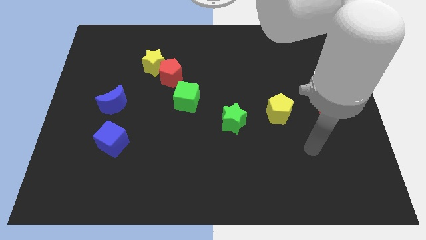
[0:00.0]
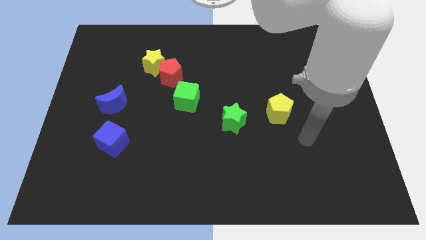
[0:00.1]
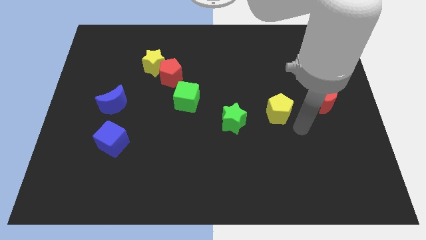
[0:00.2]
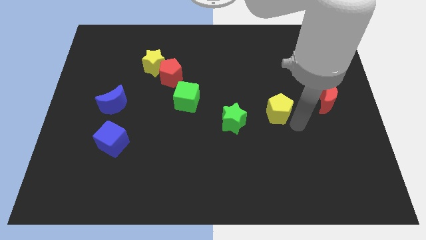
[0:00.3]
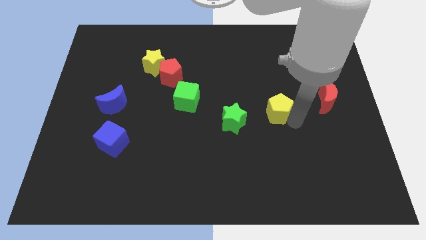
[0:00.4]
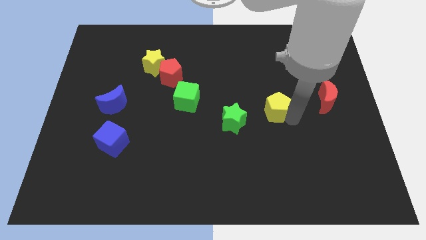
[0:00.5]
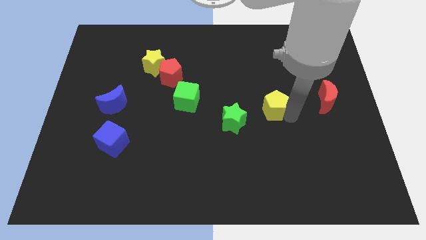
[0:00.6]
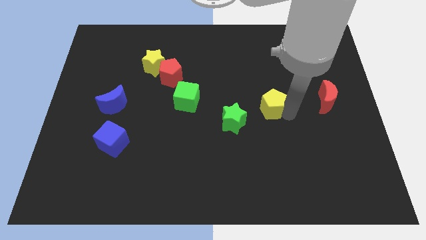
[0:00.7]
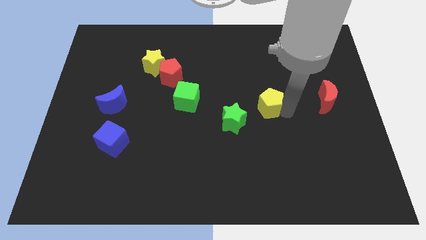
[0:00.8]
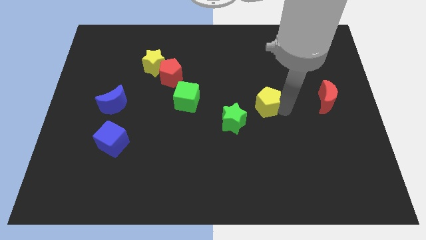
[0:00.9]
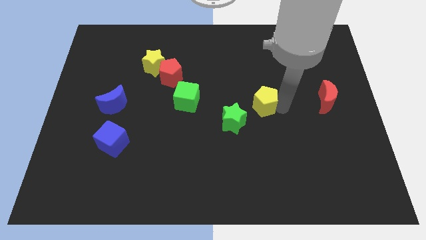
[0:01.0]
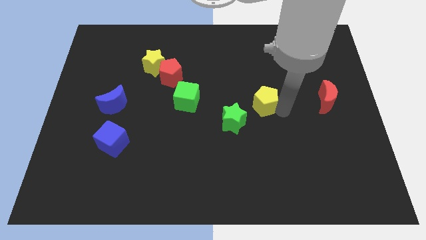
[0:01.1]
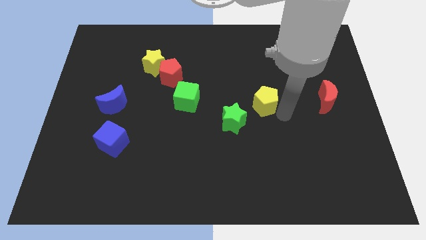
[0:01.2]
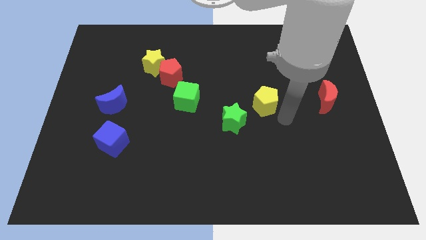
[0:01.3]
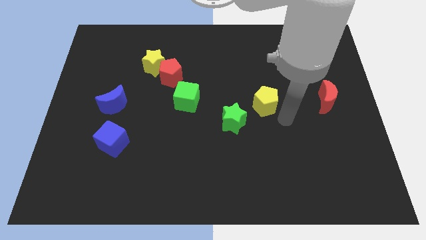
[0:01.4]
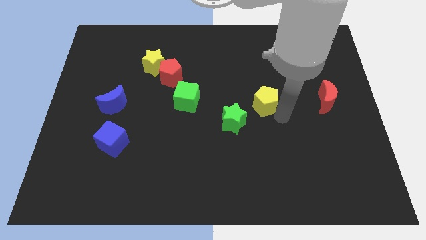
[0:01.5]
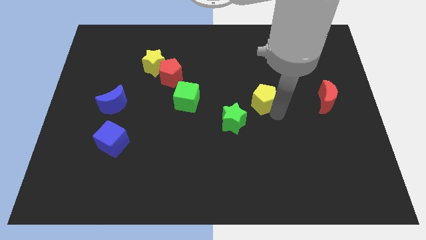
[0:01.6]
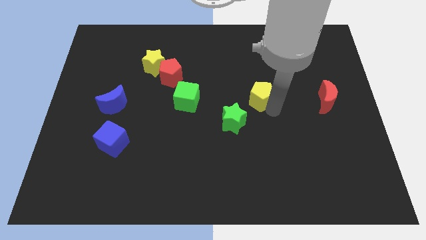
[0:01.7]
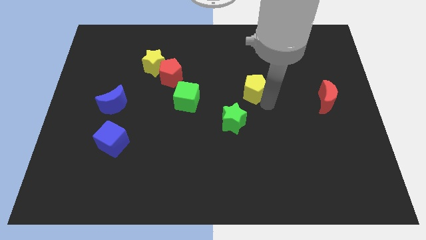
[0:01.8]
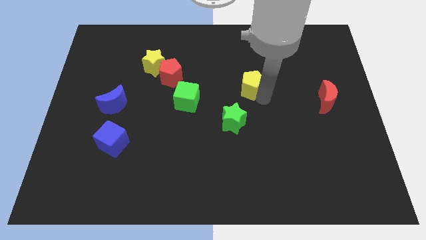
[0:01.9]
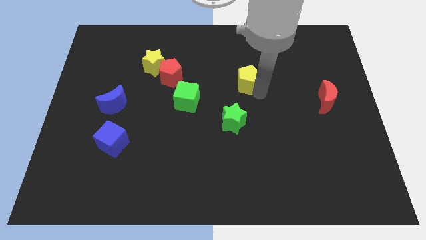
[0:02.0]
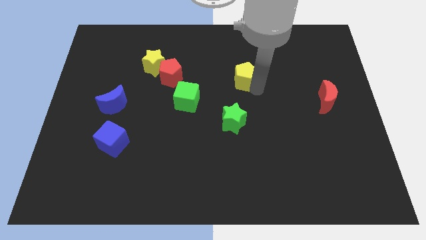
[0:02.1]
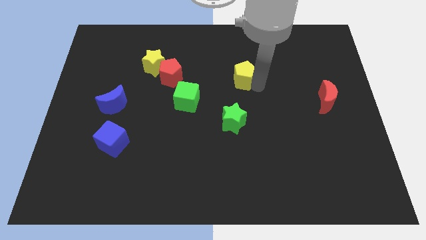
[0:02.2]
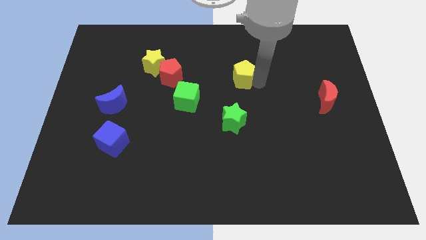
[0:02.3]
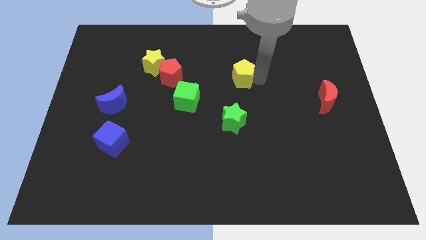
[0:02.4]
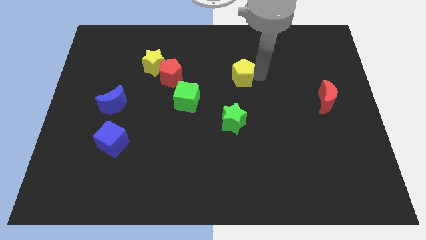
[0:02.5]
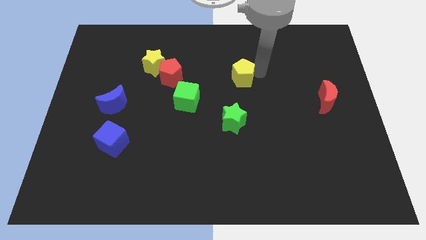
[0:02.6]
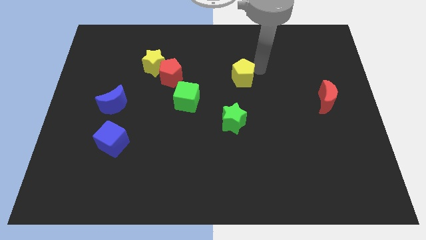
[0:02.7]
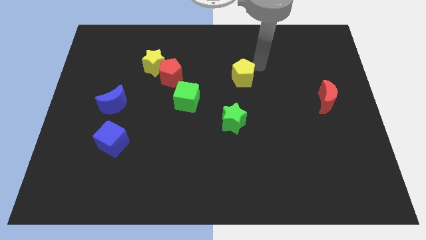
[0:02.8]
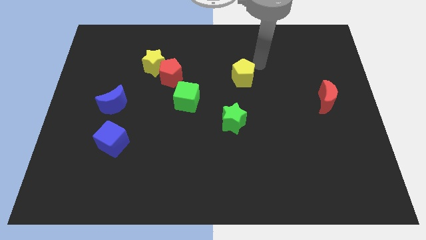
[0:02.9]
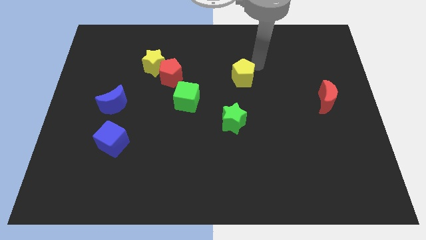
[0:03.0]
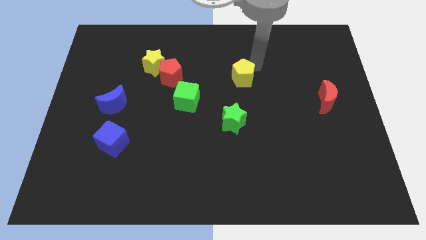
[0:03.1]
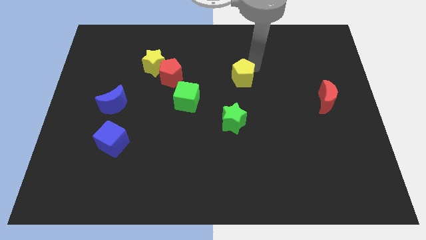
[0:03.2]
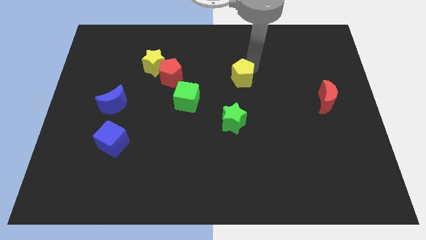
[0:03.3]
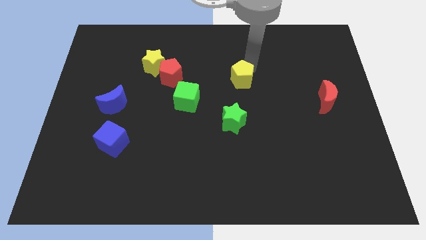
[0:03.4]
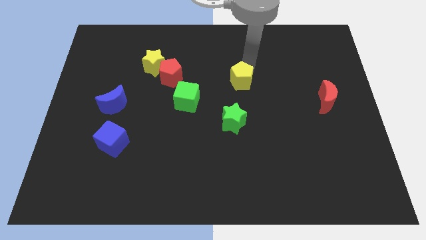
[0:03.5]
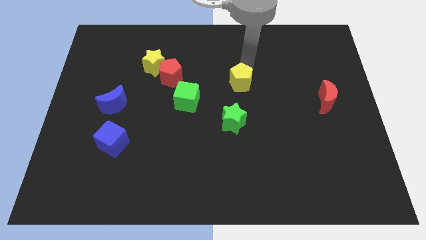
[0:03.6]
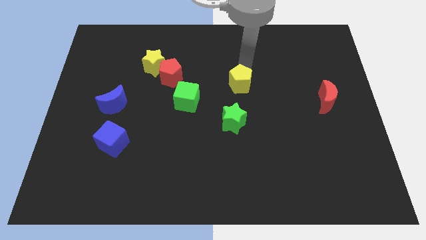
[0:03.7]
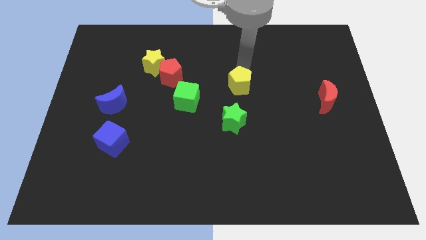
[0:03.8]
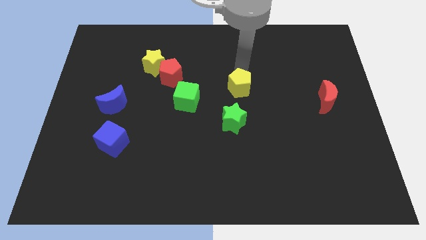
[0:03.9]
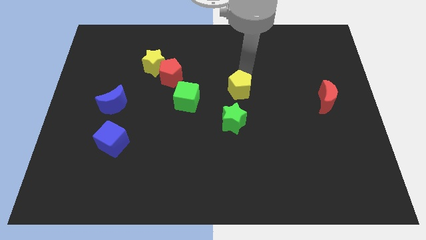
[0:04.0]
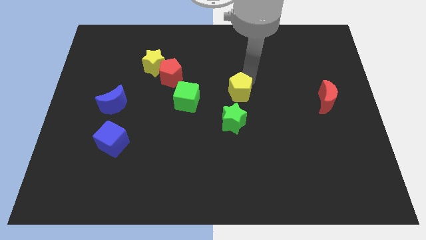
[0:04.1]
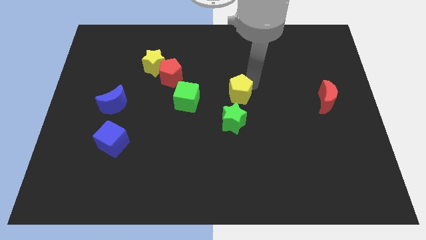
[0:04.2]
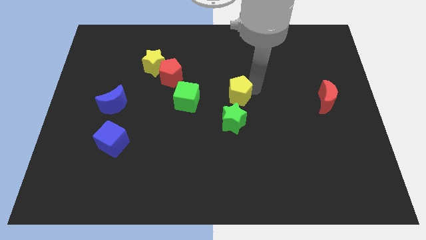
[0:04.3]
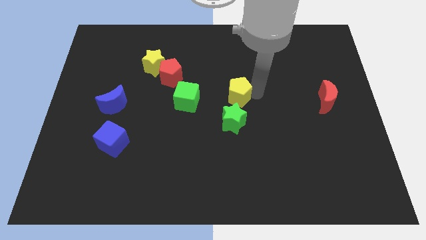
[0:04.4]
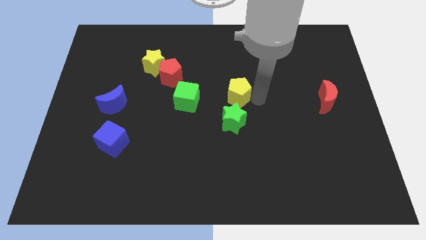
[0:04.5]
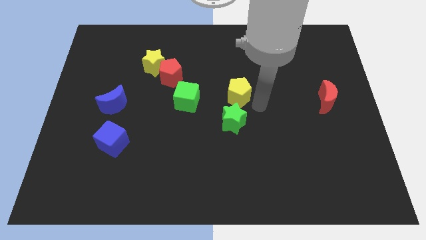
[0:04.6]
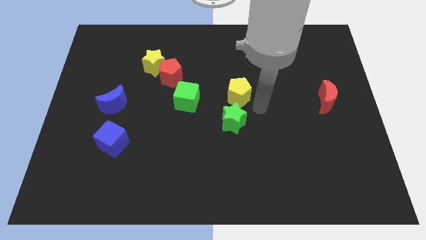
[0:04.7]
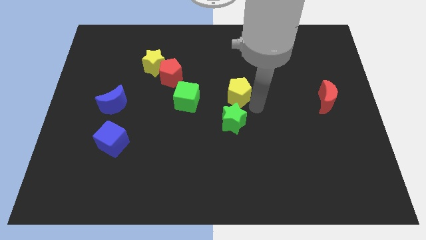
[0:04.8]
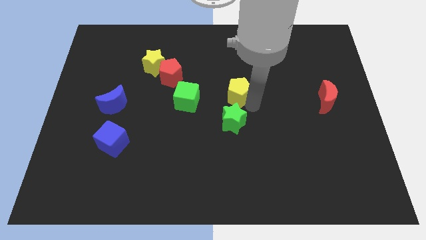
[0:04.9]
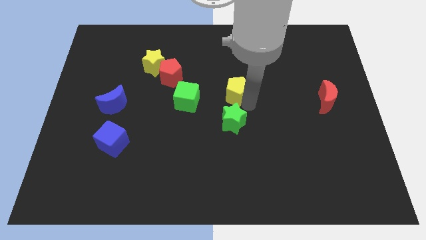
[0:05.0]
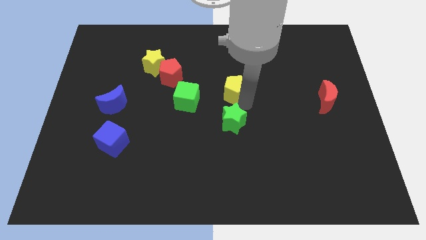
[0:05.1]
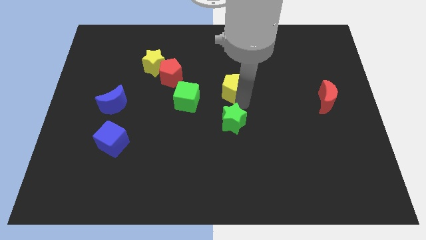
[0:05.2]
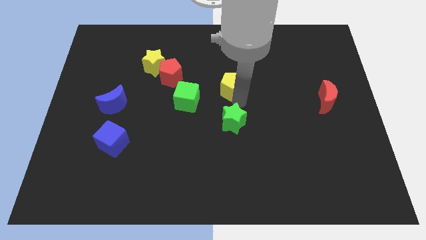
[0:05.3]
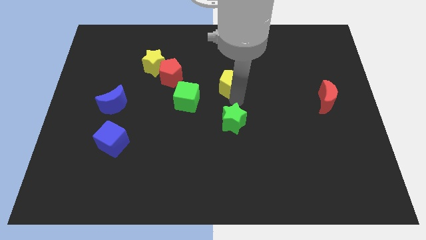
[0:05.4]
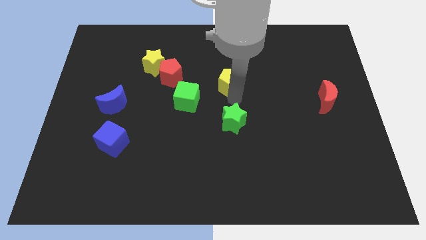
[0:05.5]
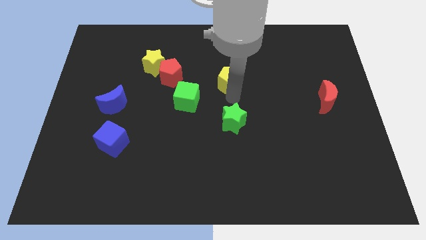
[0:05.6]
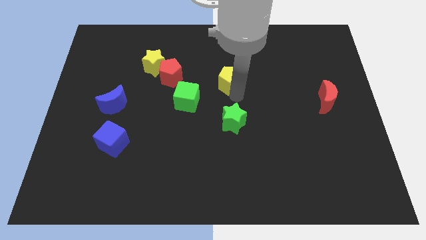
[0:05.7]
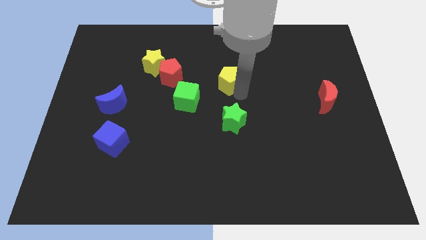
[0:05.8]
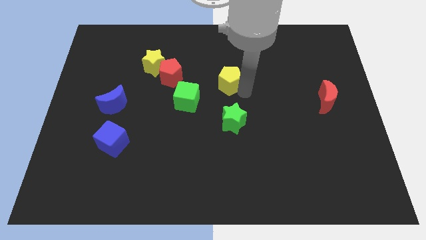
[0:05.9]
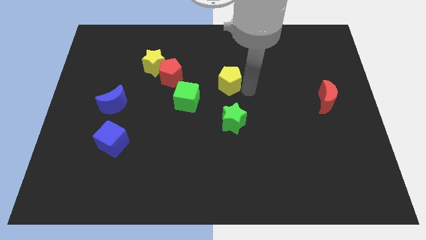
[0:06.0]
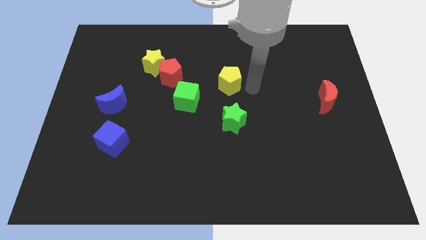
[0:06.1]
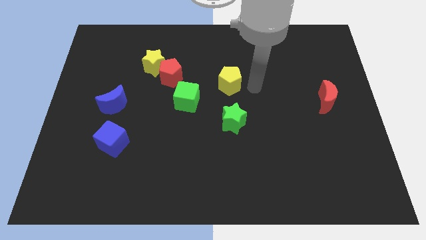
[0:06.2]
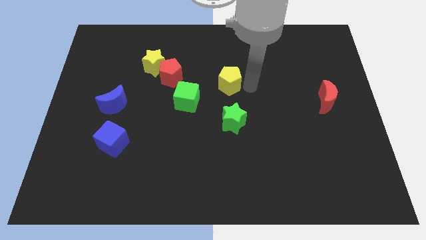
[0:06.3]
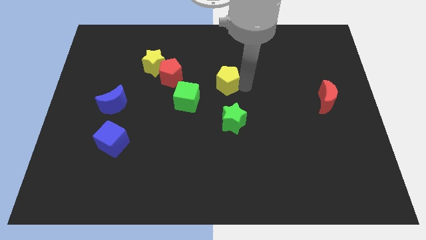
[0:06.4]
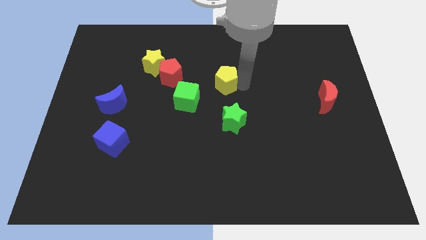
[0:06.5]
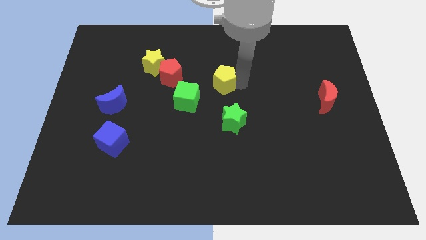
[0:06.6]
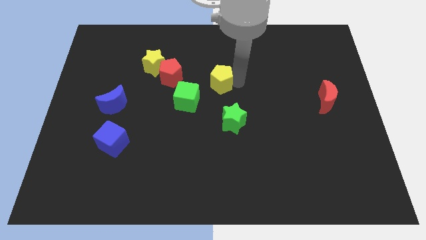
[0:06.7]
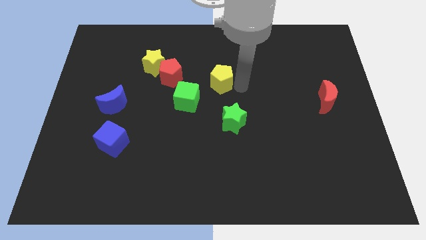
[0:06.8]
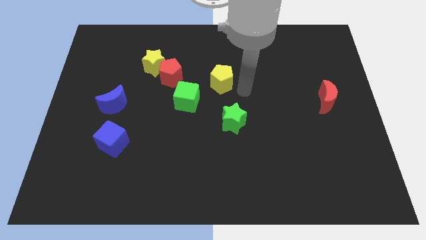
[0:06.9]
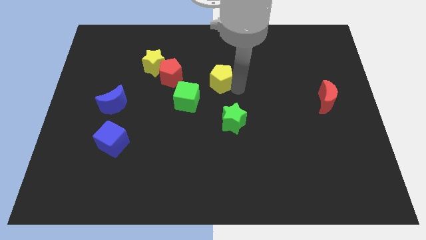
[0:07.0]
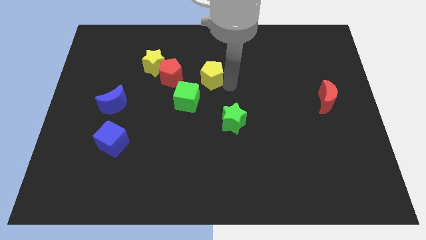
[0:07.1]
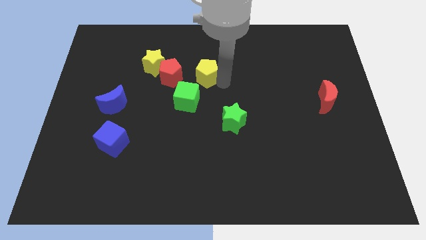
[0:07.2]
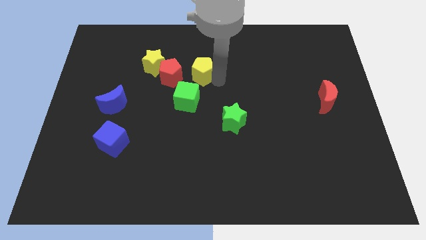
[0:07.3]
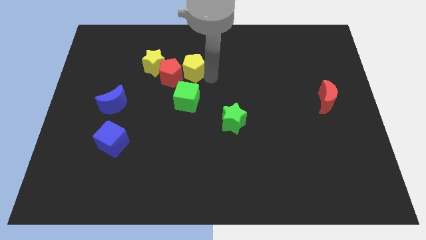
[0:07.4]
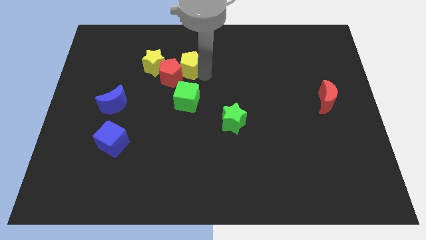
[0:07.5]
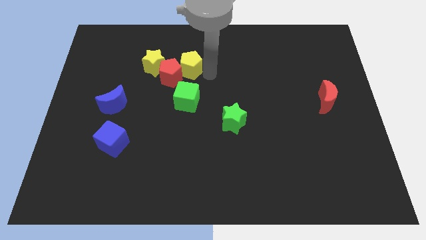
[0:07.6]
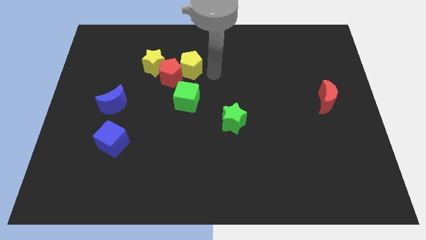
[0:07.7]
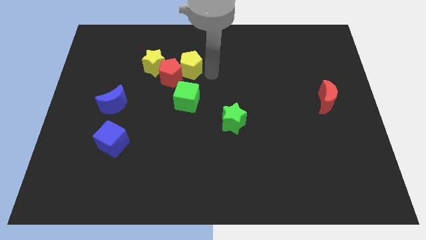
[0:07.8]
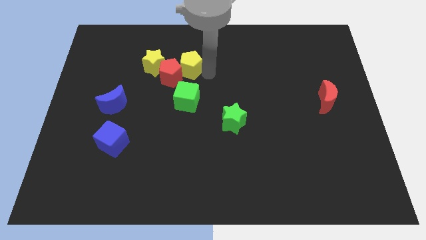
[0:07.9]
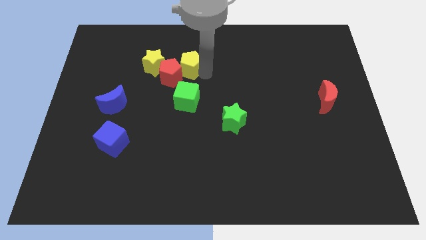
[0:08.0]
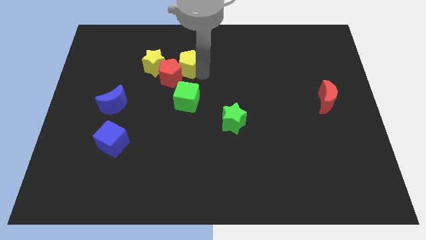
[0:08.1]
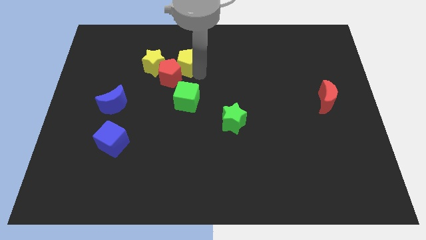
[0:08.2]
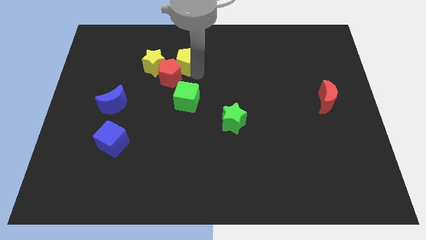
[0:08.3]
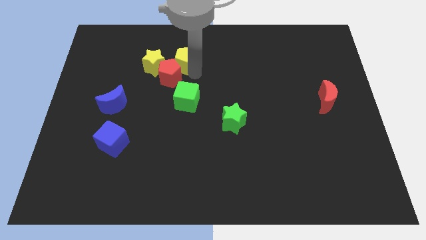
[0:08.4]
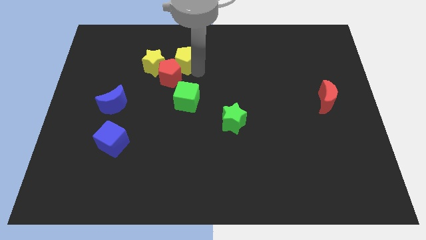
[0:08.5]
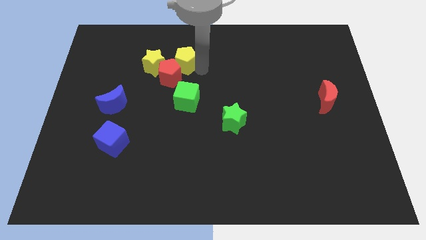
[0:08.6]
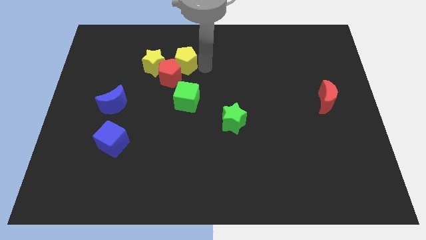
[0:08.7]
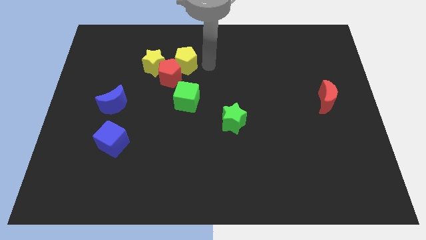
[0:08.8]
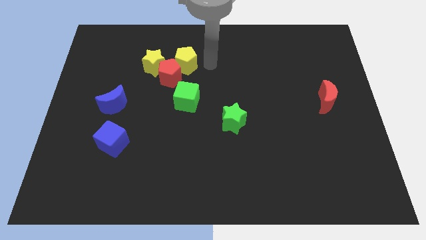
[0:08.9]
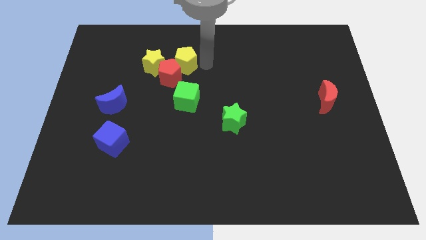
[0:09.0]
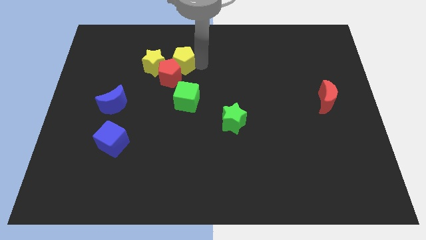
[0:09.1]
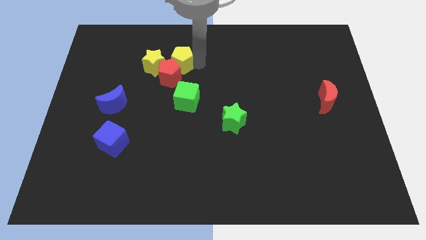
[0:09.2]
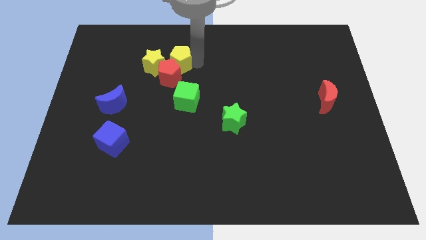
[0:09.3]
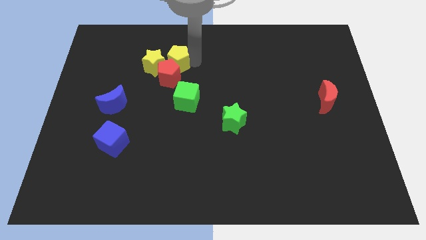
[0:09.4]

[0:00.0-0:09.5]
push the yellow pentagon towards the yellow star
